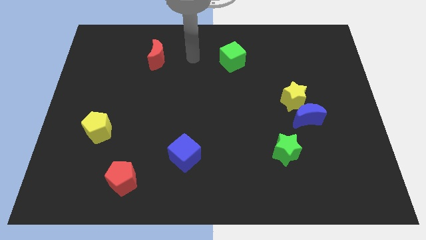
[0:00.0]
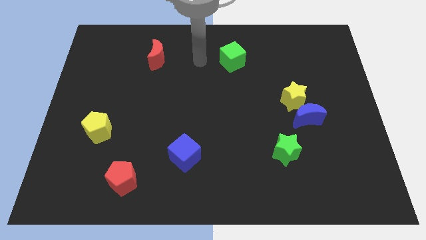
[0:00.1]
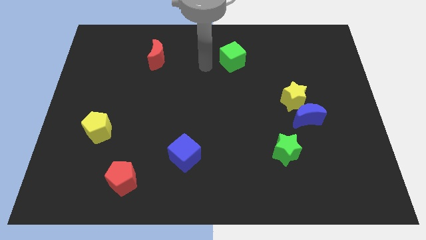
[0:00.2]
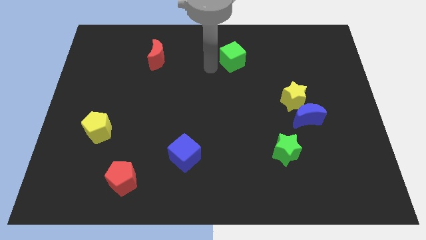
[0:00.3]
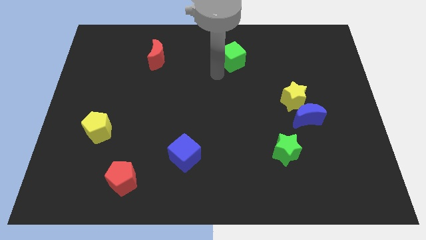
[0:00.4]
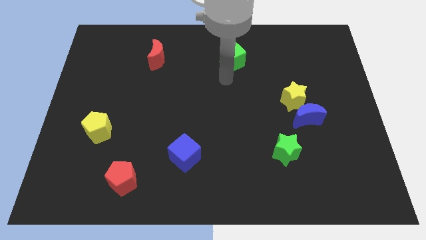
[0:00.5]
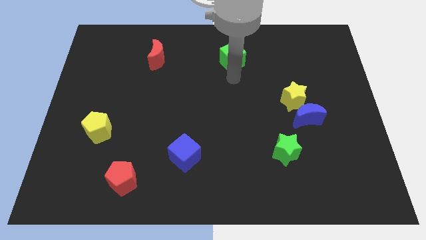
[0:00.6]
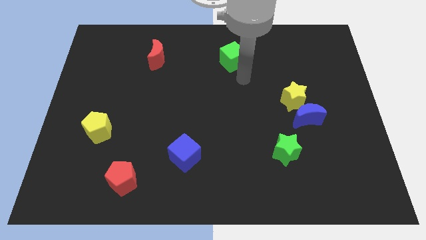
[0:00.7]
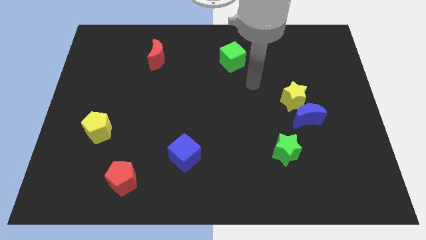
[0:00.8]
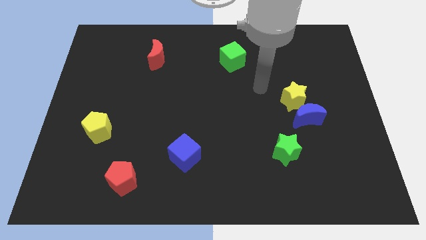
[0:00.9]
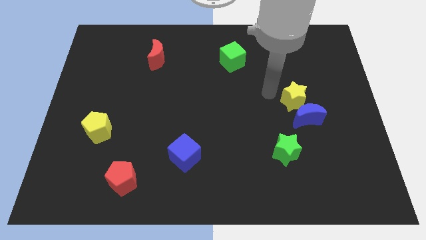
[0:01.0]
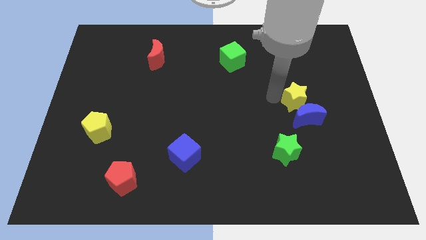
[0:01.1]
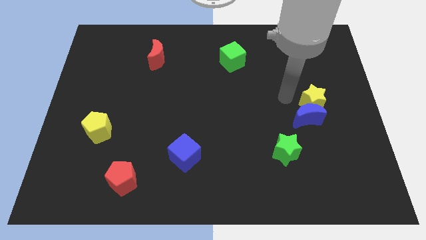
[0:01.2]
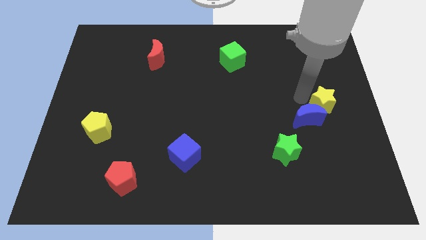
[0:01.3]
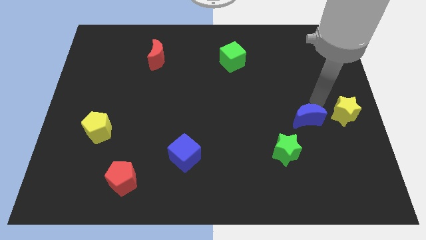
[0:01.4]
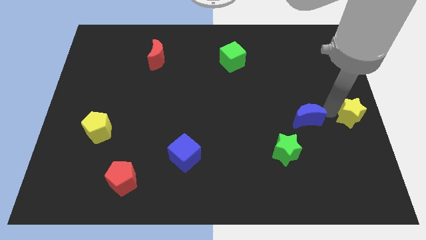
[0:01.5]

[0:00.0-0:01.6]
pull the blue moon apart from the yellow star

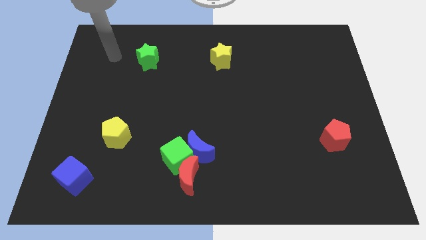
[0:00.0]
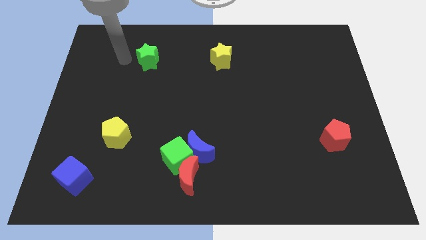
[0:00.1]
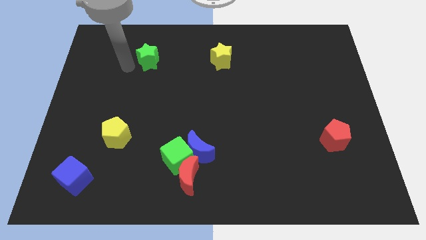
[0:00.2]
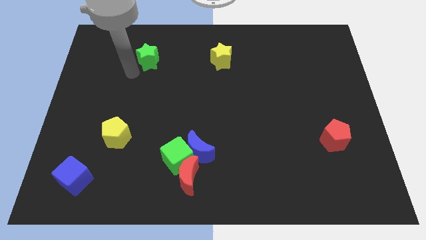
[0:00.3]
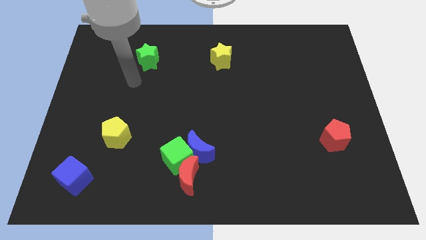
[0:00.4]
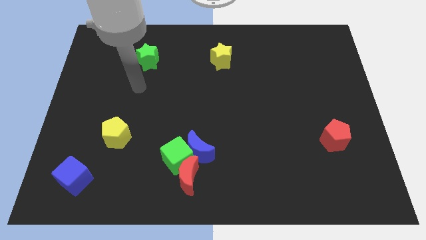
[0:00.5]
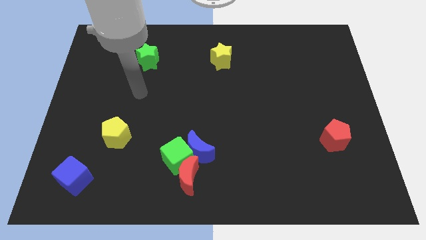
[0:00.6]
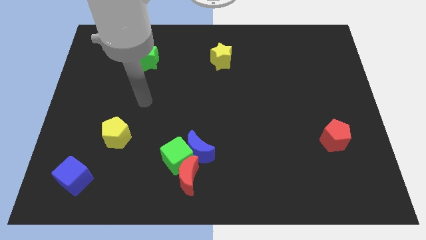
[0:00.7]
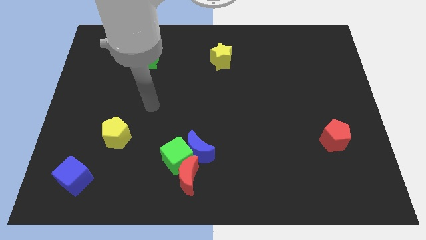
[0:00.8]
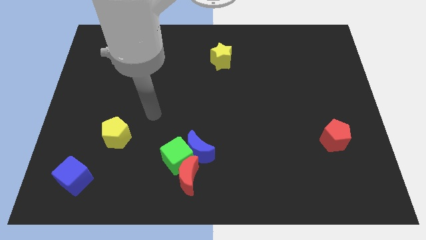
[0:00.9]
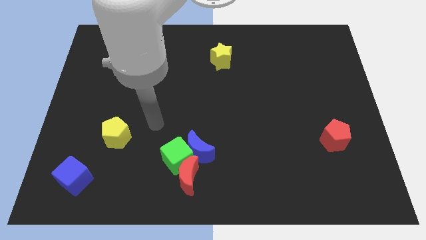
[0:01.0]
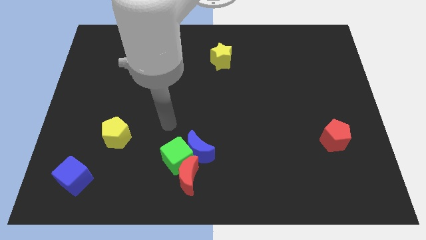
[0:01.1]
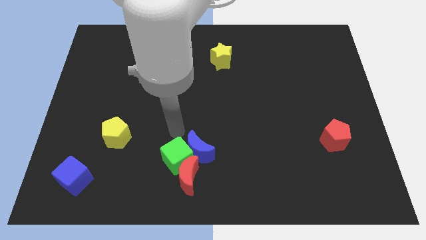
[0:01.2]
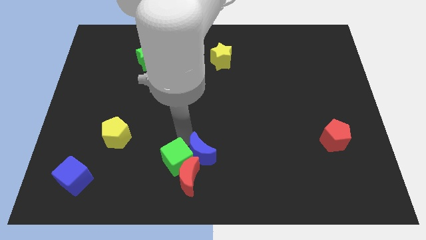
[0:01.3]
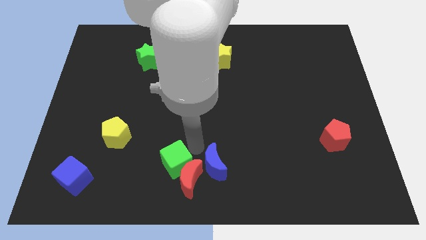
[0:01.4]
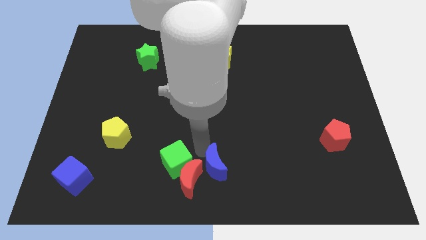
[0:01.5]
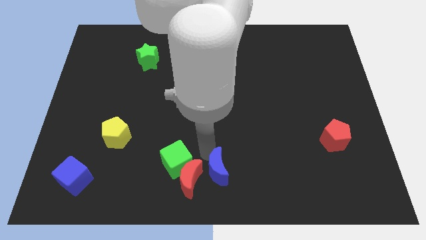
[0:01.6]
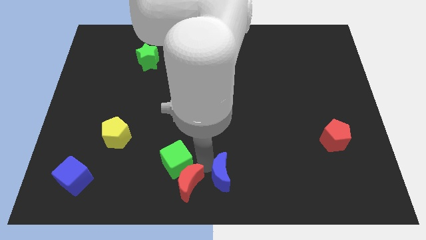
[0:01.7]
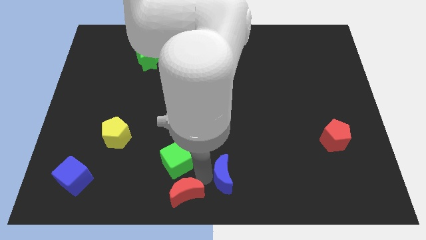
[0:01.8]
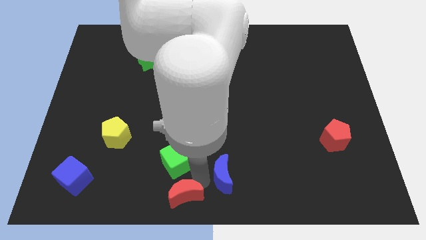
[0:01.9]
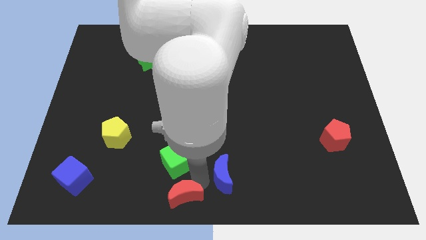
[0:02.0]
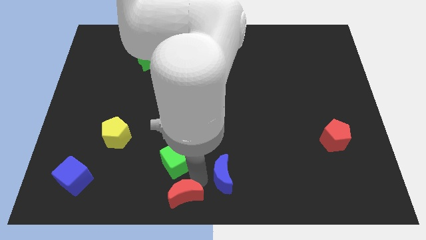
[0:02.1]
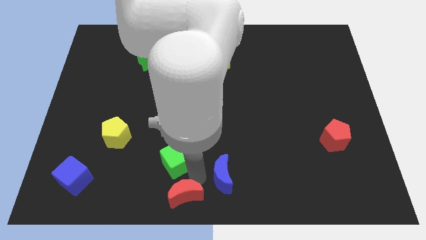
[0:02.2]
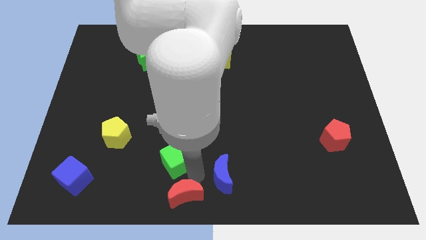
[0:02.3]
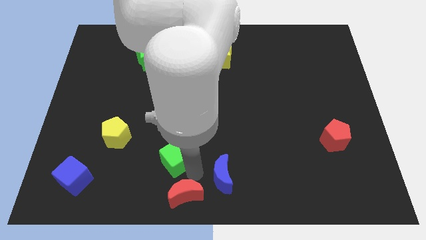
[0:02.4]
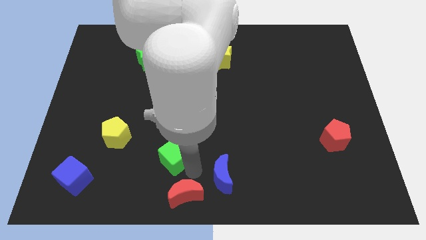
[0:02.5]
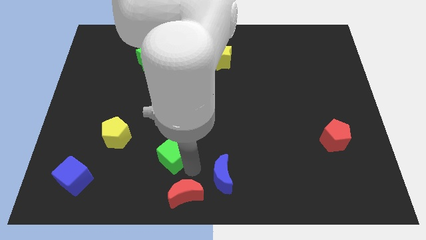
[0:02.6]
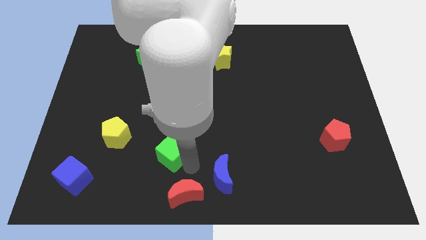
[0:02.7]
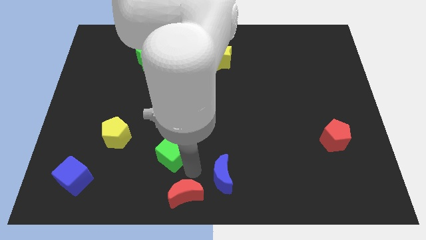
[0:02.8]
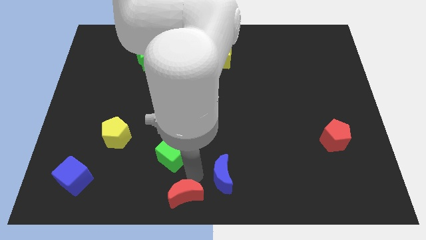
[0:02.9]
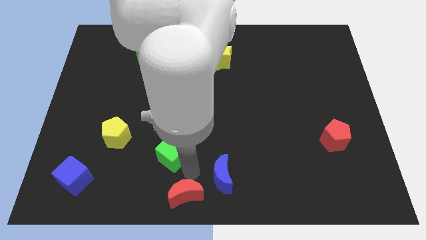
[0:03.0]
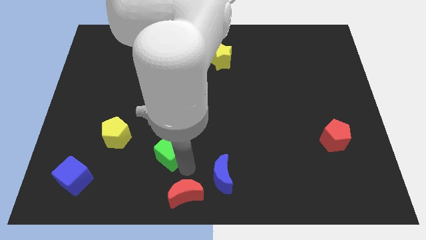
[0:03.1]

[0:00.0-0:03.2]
pull the green cube apart from the blue moon and red moon

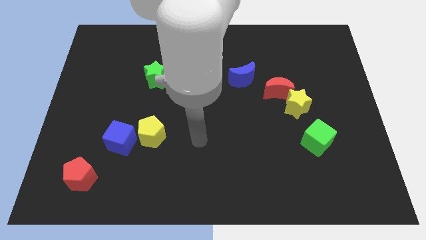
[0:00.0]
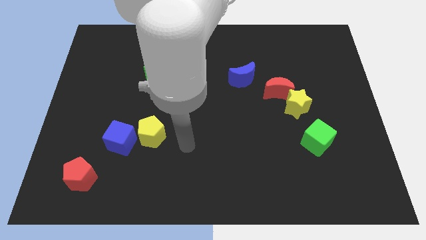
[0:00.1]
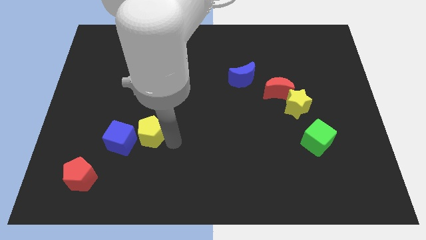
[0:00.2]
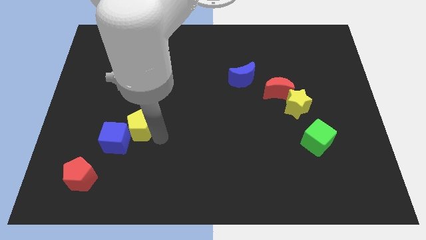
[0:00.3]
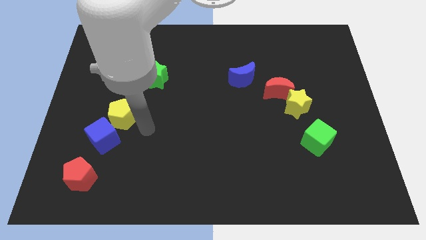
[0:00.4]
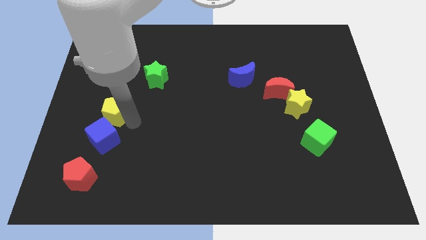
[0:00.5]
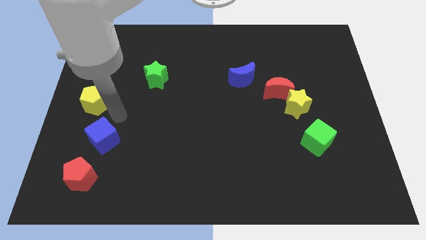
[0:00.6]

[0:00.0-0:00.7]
pull the blue cube apart from the yellow pentagon

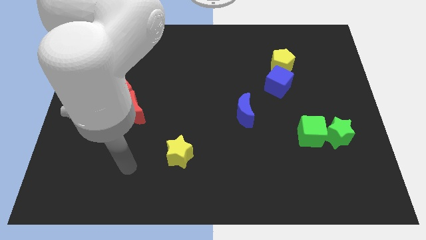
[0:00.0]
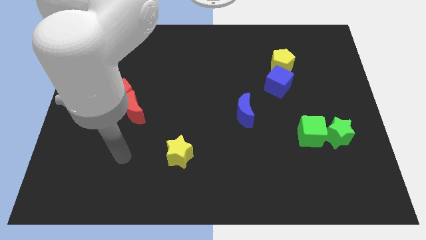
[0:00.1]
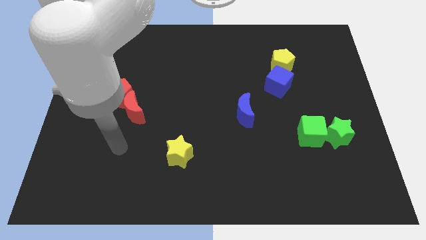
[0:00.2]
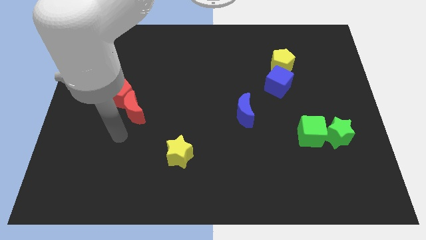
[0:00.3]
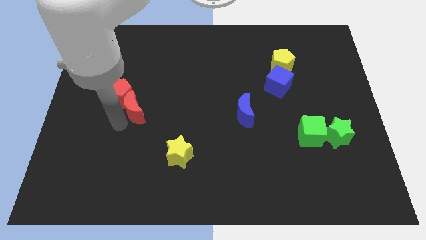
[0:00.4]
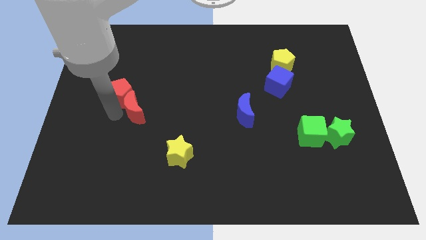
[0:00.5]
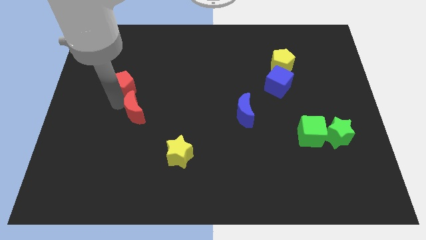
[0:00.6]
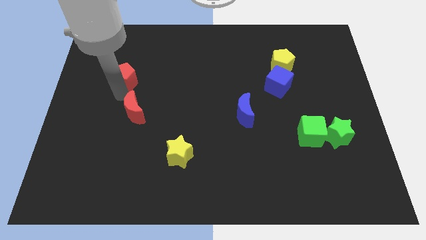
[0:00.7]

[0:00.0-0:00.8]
move the red moon away from the red pentagon

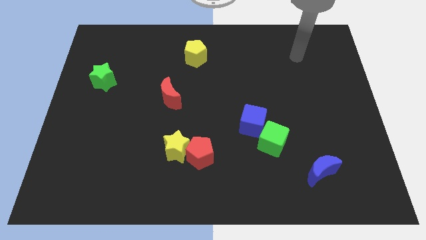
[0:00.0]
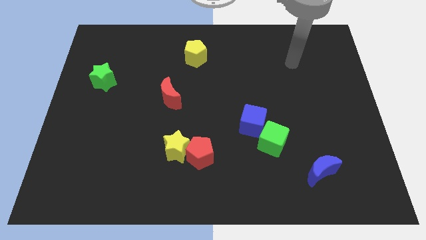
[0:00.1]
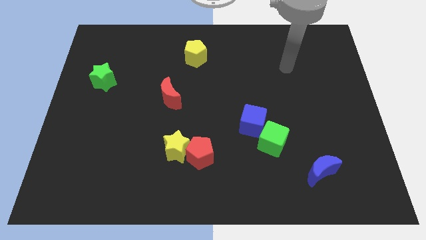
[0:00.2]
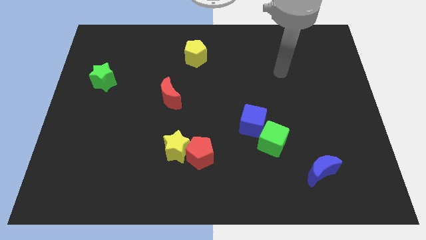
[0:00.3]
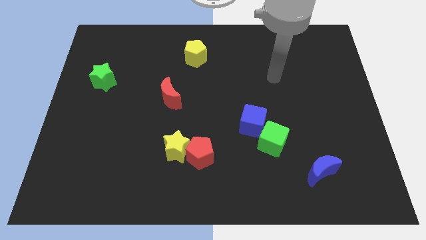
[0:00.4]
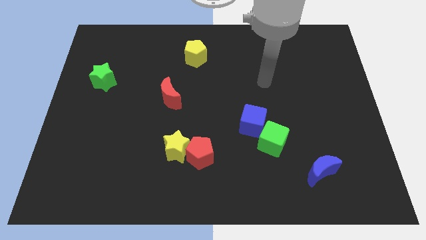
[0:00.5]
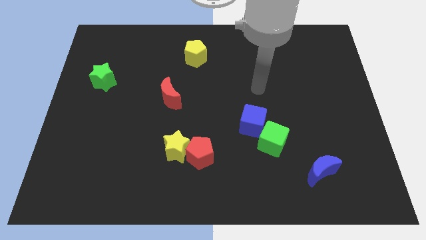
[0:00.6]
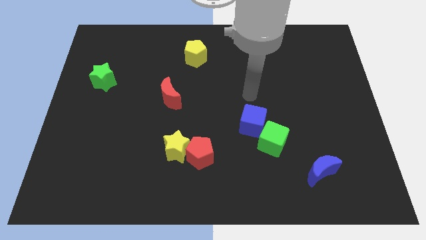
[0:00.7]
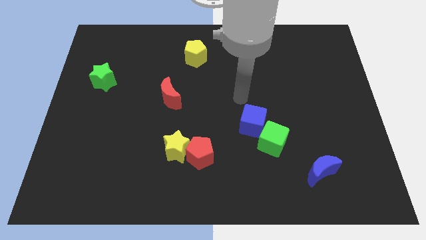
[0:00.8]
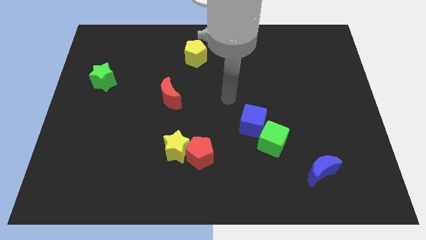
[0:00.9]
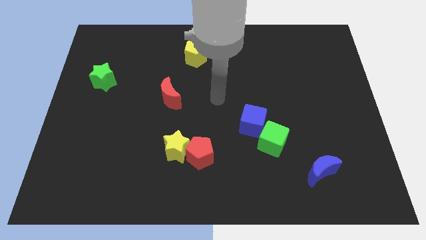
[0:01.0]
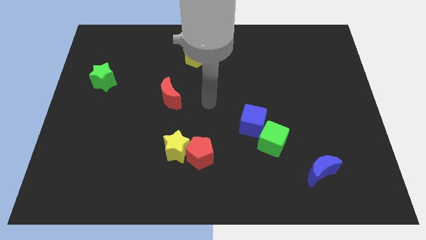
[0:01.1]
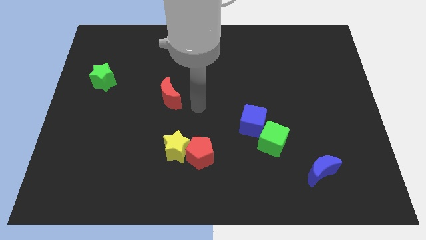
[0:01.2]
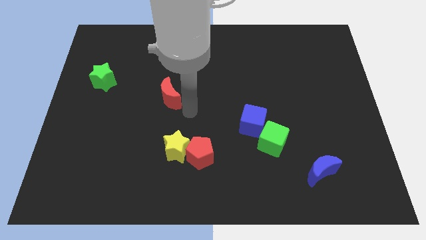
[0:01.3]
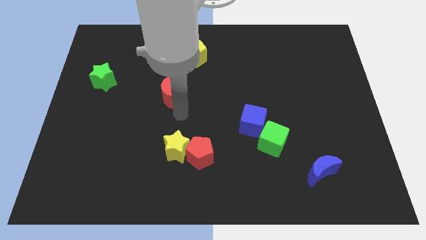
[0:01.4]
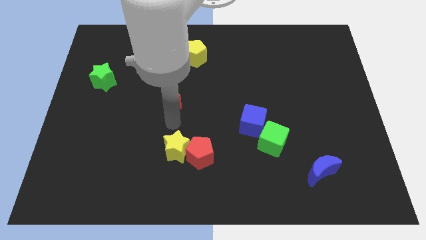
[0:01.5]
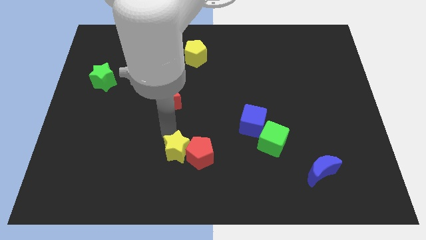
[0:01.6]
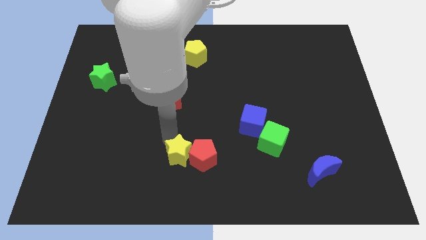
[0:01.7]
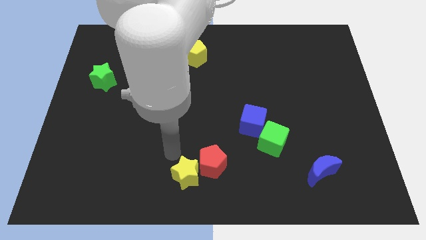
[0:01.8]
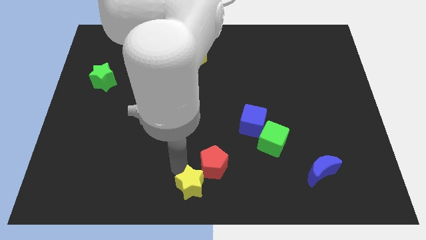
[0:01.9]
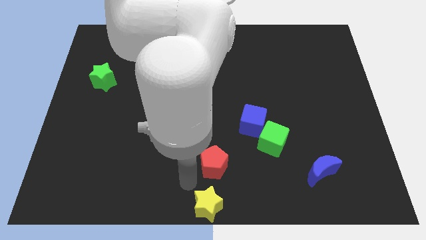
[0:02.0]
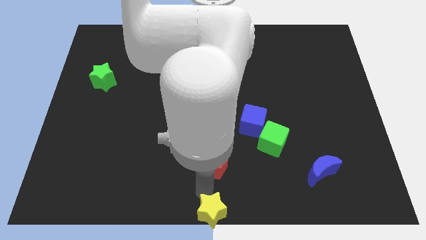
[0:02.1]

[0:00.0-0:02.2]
separate the red pentagon from the yellow star

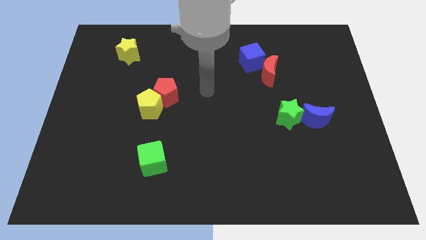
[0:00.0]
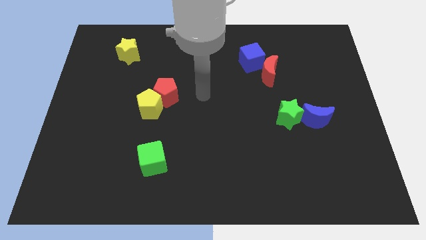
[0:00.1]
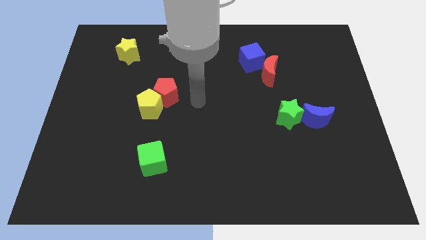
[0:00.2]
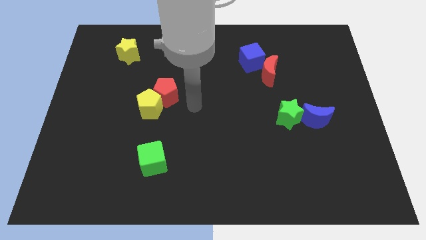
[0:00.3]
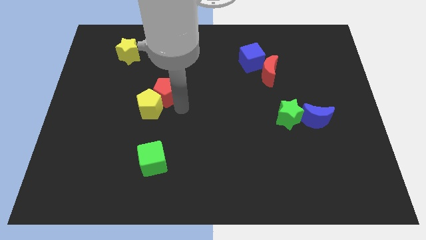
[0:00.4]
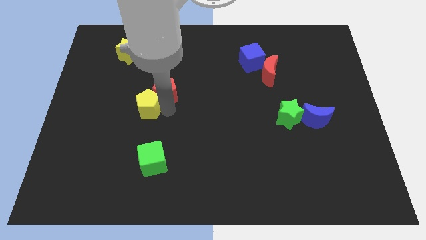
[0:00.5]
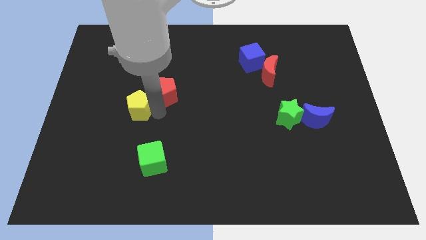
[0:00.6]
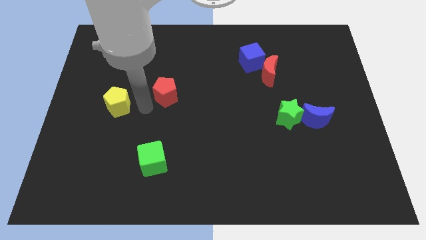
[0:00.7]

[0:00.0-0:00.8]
separate the red pentagon from the yellow pentagon

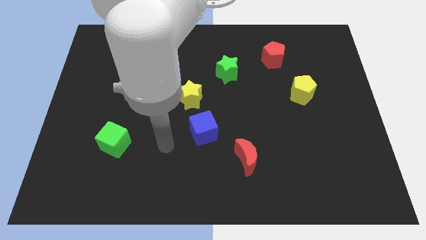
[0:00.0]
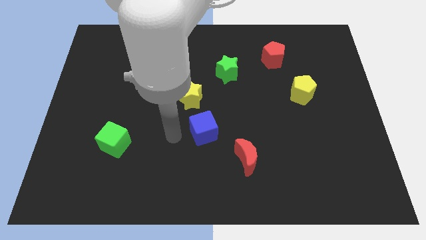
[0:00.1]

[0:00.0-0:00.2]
separate the blue cube from the yellow star
